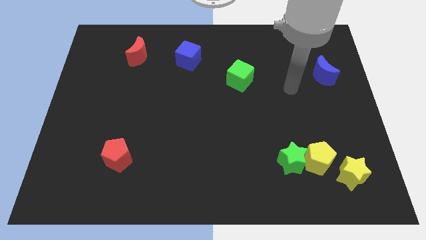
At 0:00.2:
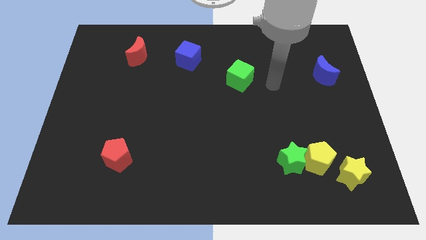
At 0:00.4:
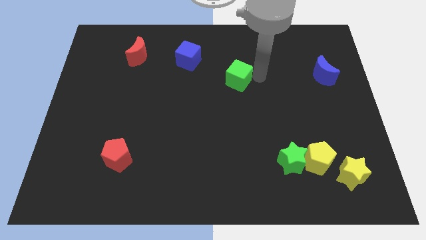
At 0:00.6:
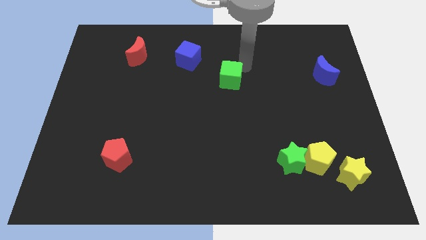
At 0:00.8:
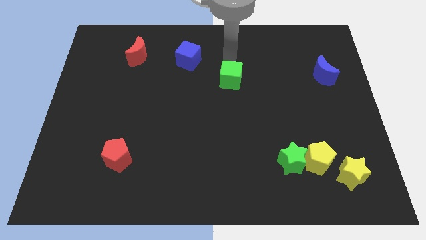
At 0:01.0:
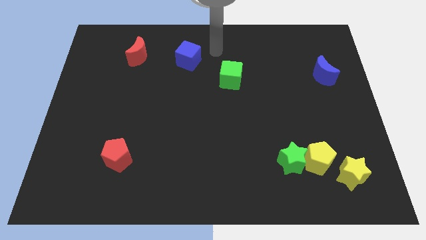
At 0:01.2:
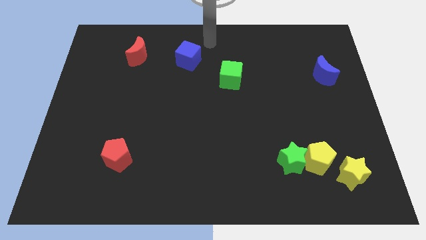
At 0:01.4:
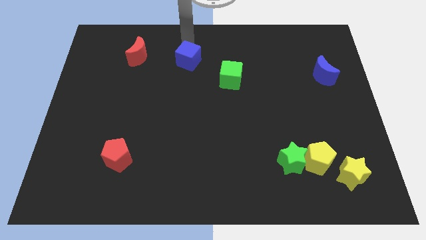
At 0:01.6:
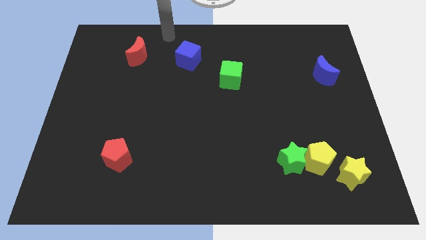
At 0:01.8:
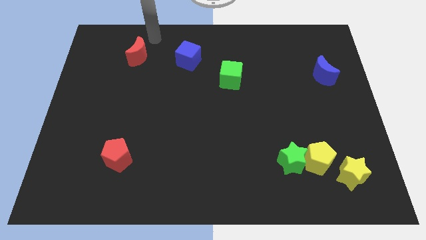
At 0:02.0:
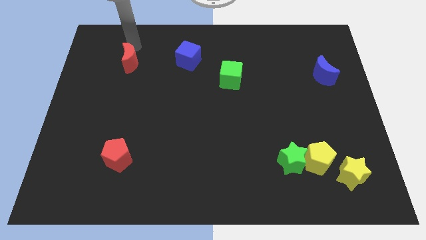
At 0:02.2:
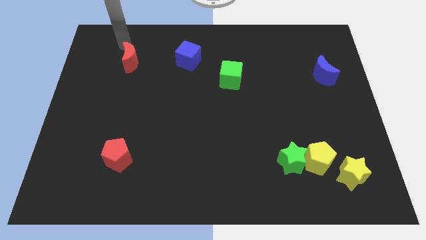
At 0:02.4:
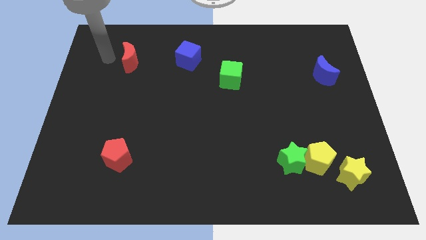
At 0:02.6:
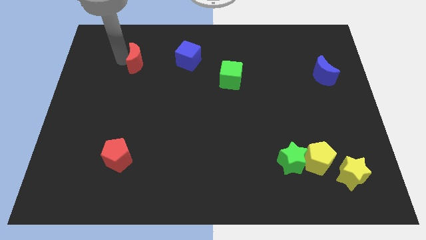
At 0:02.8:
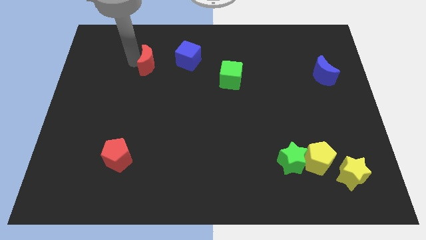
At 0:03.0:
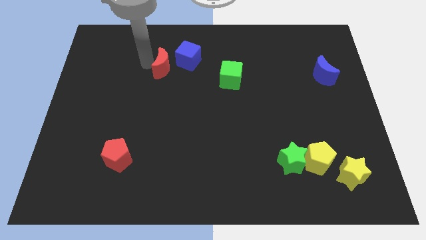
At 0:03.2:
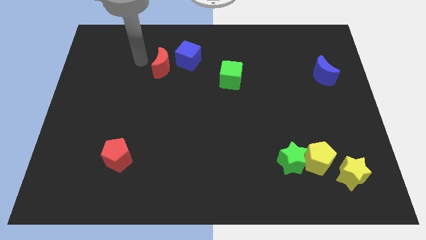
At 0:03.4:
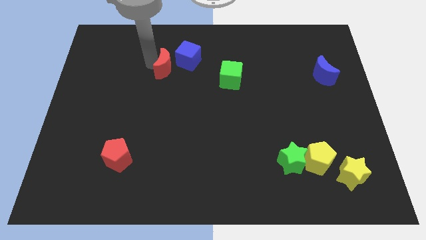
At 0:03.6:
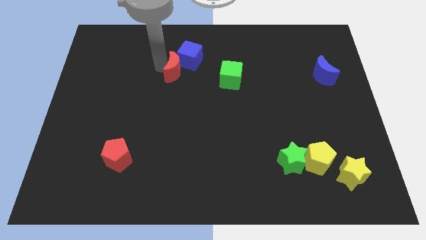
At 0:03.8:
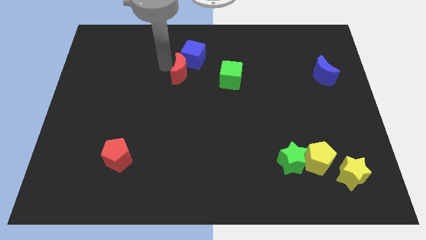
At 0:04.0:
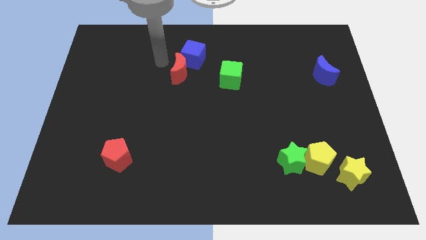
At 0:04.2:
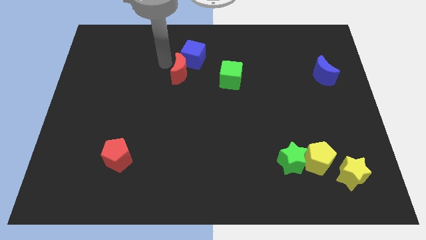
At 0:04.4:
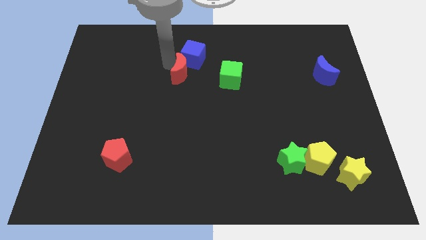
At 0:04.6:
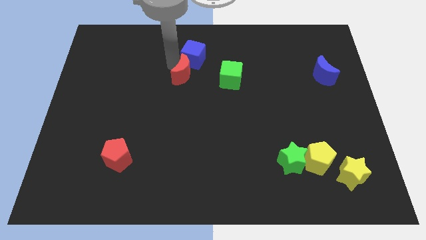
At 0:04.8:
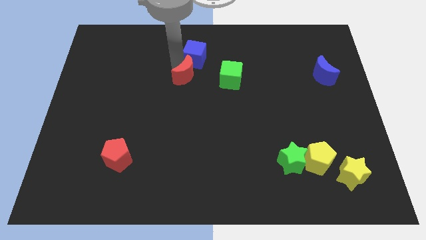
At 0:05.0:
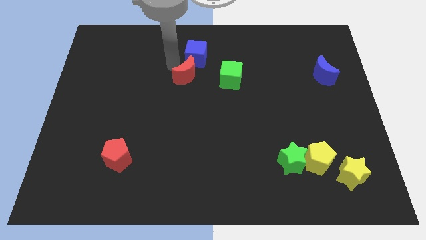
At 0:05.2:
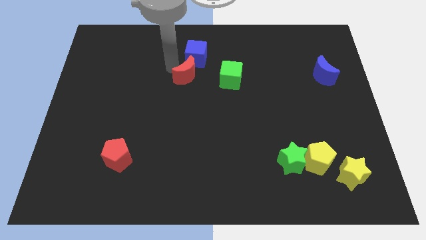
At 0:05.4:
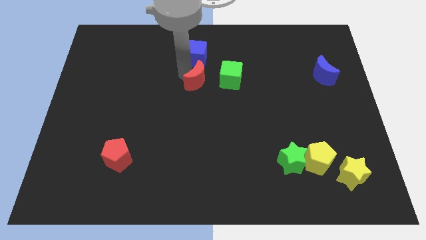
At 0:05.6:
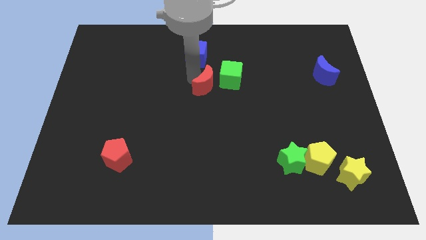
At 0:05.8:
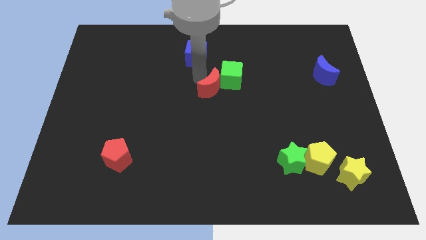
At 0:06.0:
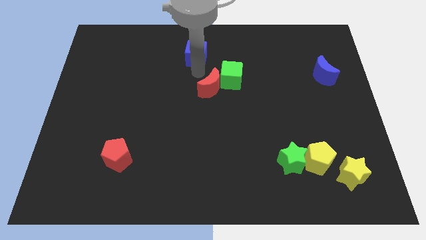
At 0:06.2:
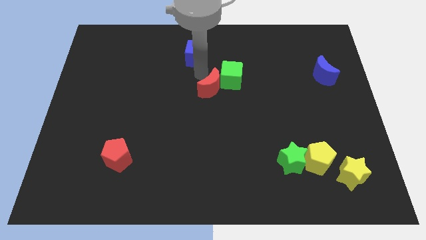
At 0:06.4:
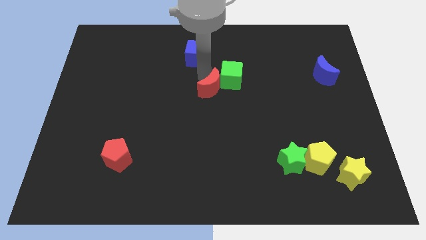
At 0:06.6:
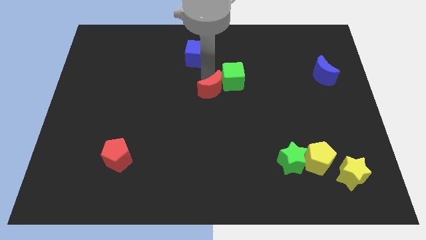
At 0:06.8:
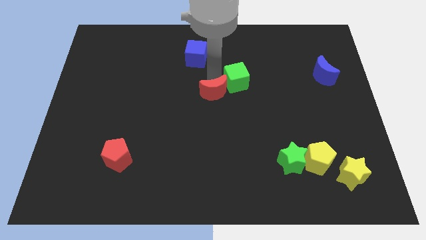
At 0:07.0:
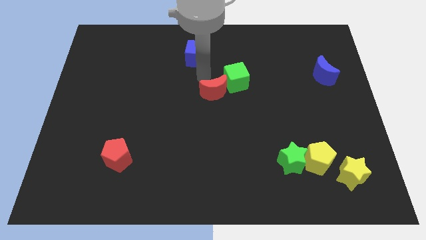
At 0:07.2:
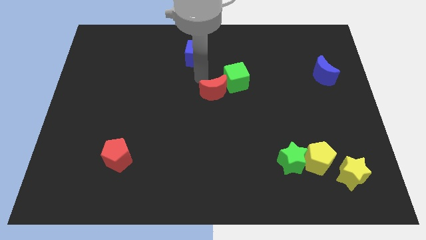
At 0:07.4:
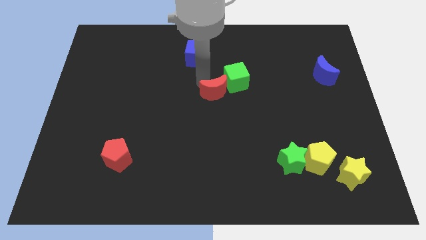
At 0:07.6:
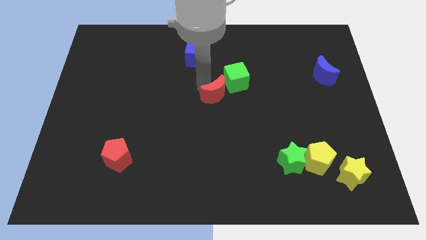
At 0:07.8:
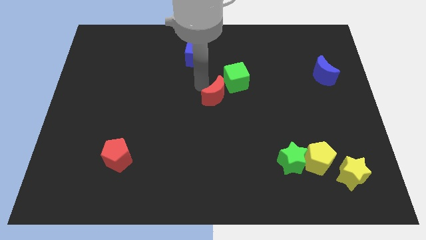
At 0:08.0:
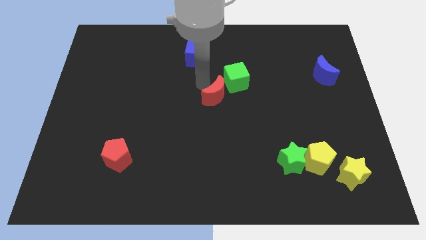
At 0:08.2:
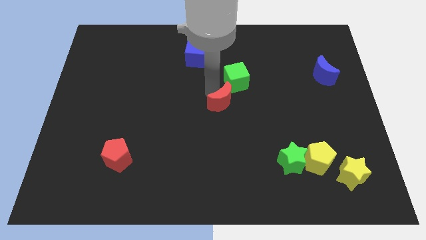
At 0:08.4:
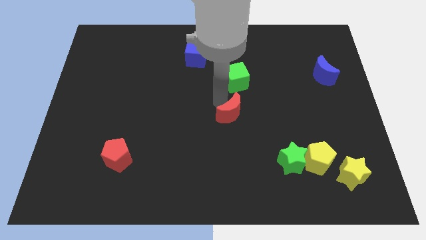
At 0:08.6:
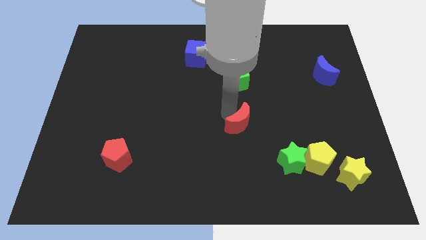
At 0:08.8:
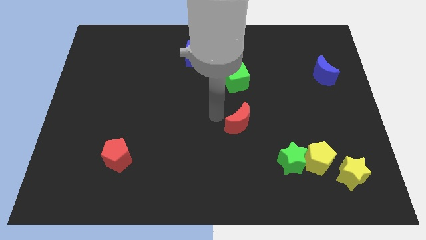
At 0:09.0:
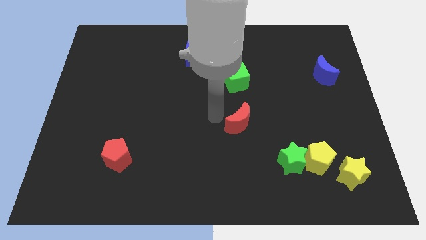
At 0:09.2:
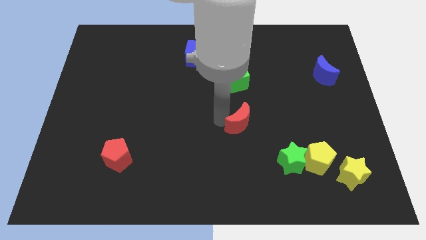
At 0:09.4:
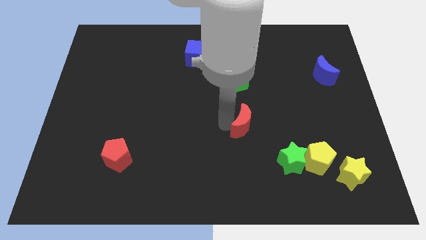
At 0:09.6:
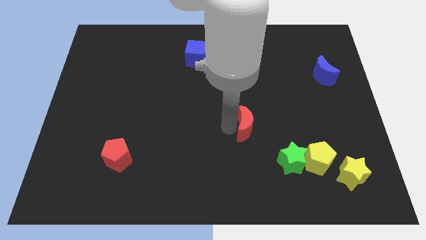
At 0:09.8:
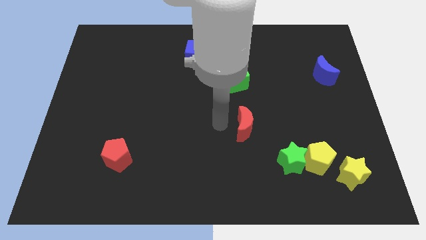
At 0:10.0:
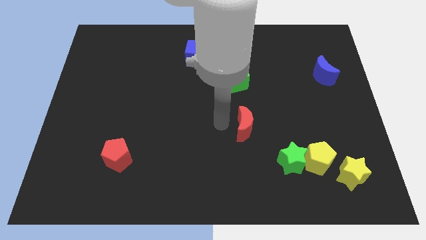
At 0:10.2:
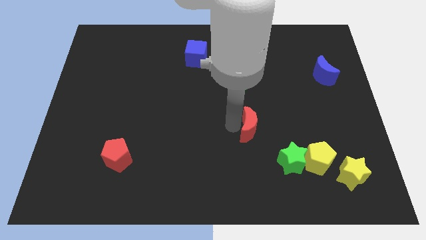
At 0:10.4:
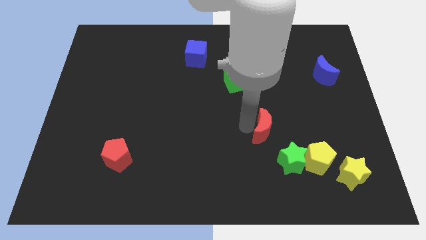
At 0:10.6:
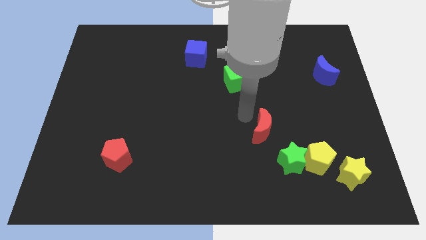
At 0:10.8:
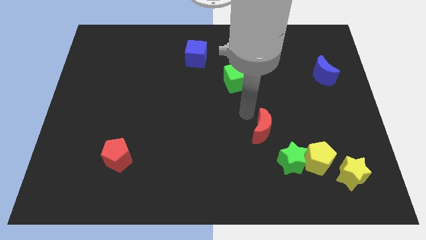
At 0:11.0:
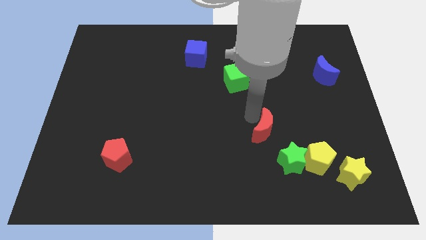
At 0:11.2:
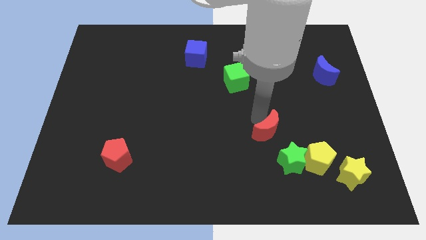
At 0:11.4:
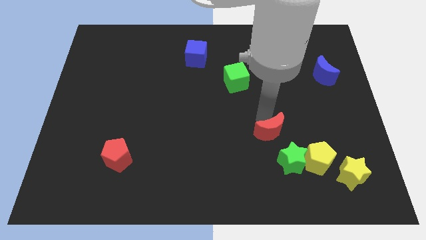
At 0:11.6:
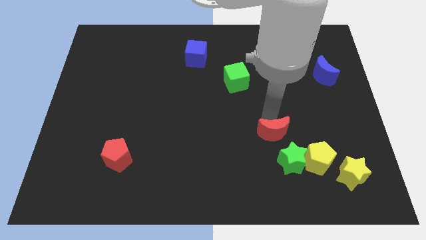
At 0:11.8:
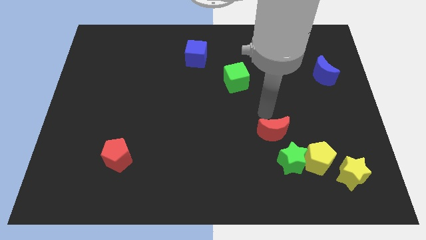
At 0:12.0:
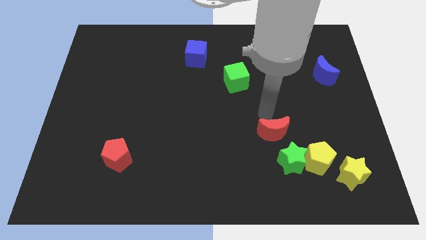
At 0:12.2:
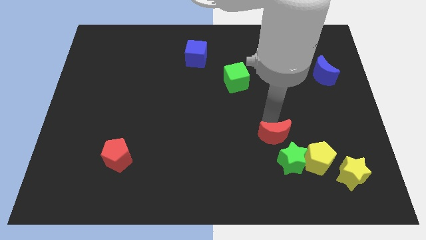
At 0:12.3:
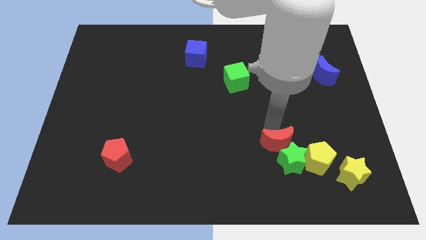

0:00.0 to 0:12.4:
move the red moon to the green star

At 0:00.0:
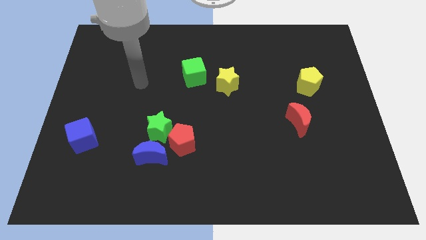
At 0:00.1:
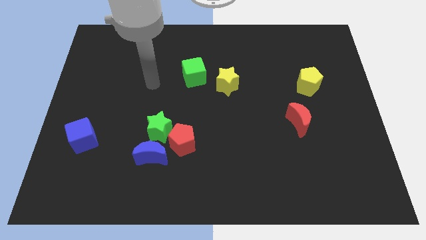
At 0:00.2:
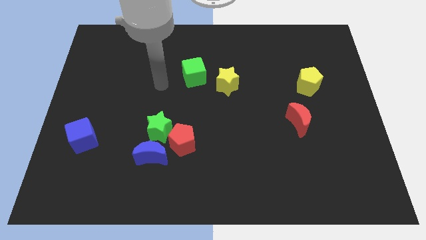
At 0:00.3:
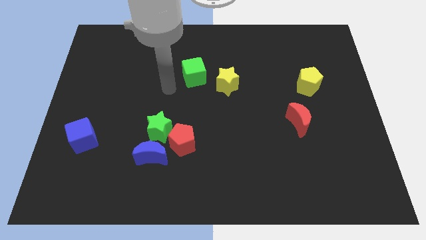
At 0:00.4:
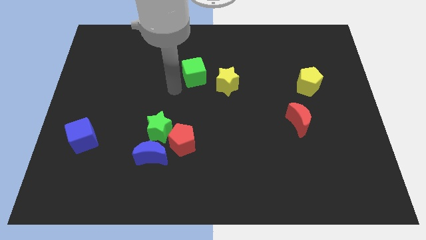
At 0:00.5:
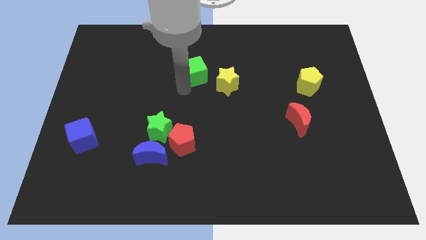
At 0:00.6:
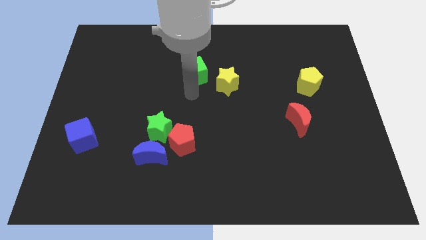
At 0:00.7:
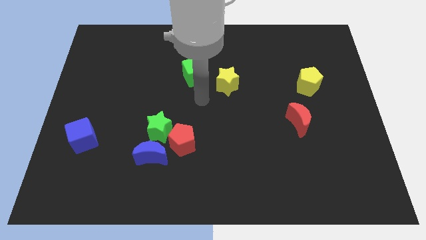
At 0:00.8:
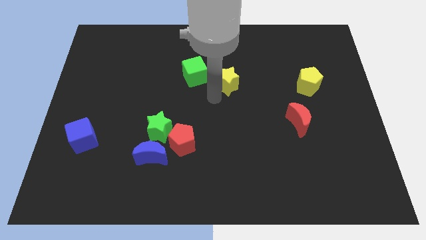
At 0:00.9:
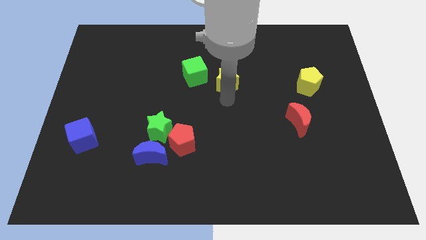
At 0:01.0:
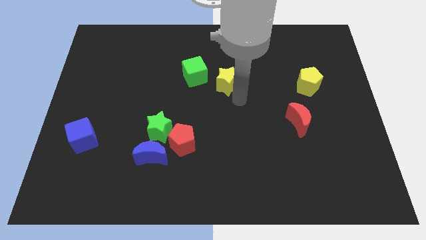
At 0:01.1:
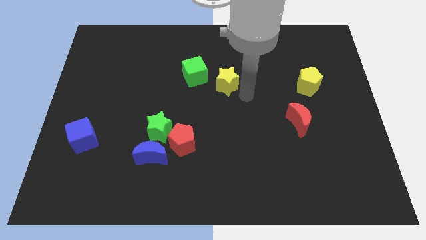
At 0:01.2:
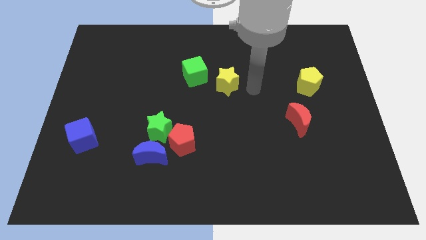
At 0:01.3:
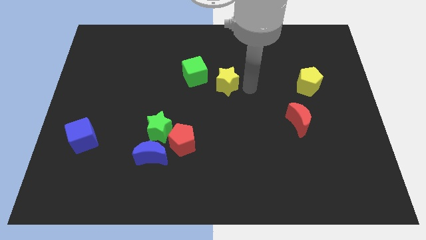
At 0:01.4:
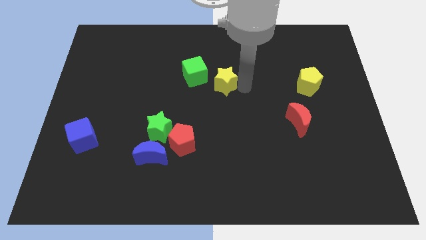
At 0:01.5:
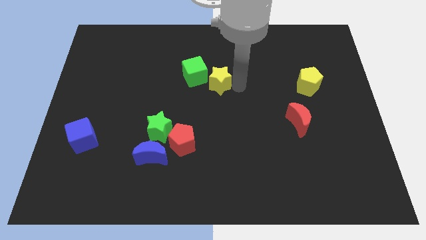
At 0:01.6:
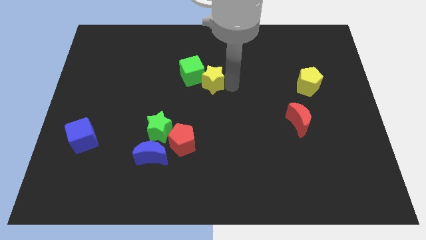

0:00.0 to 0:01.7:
slide the yellow star to the green cube
